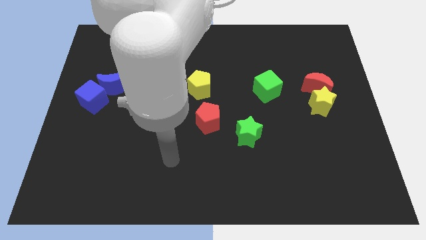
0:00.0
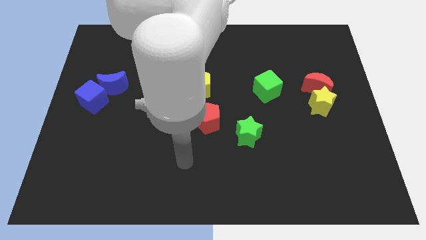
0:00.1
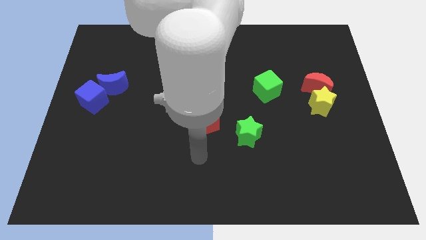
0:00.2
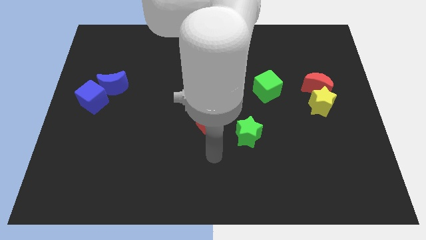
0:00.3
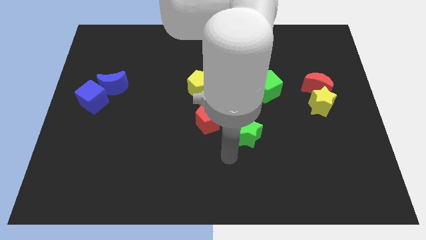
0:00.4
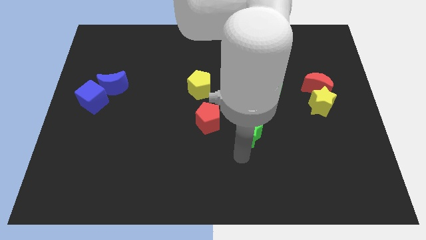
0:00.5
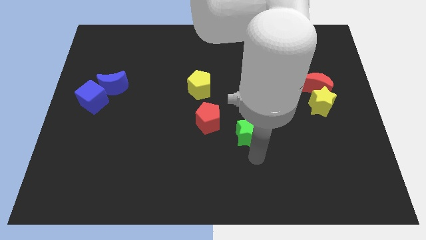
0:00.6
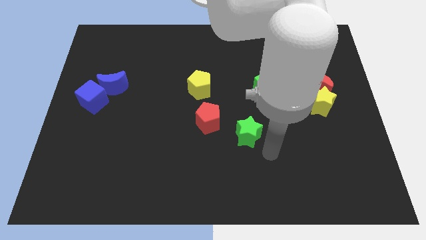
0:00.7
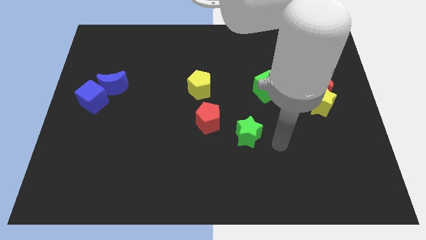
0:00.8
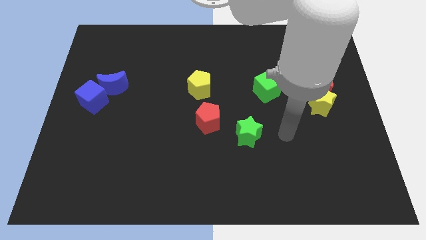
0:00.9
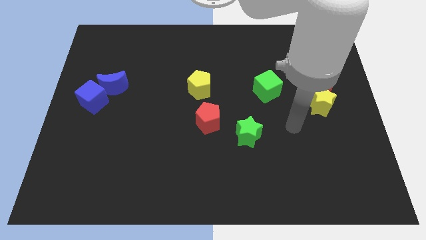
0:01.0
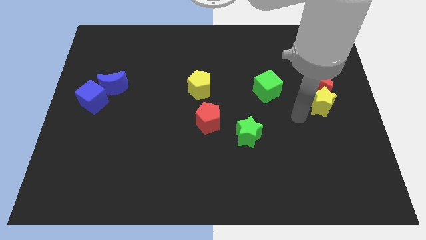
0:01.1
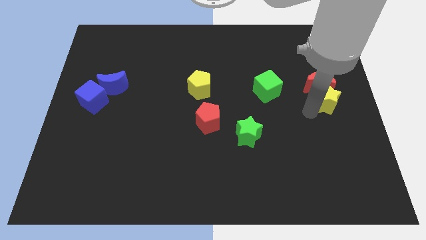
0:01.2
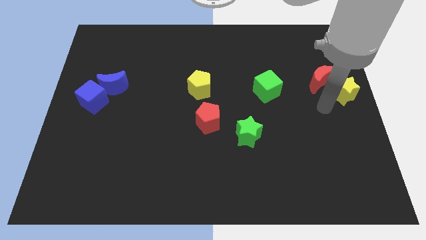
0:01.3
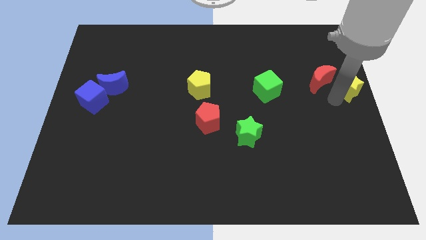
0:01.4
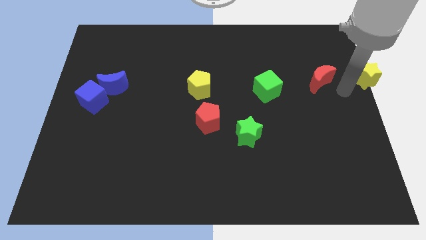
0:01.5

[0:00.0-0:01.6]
separate the red moon from the yellow star

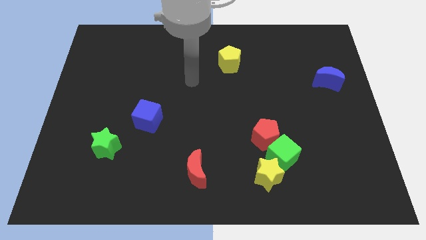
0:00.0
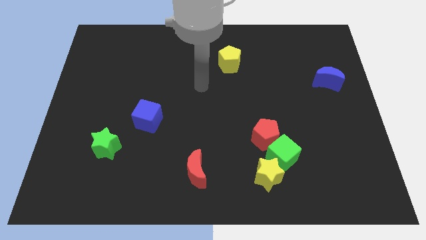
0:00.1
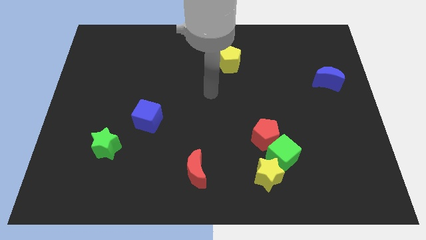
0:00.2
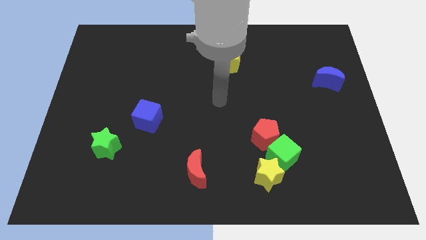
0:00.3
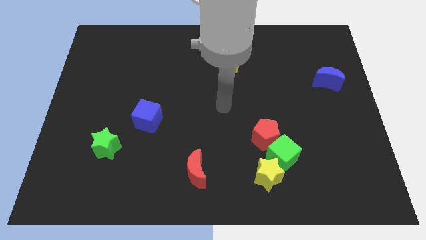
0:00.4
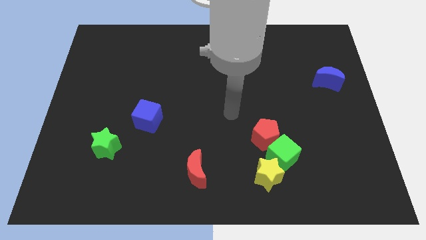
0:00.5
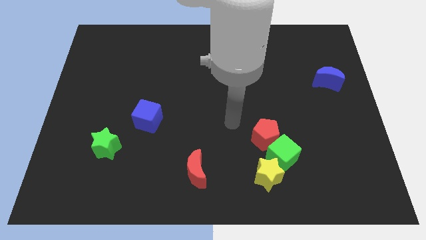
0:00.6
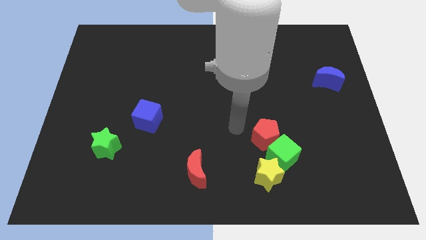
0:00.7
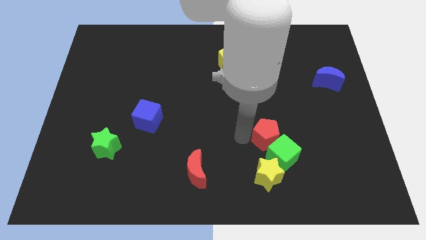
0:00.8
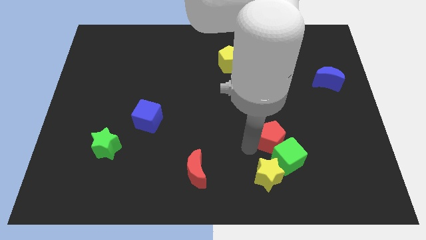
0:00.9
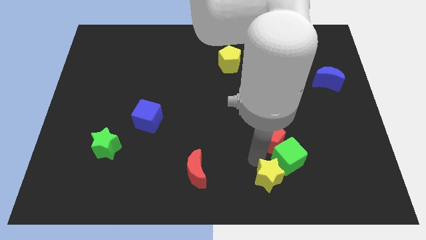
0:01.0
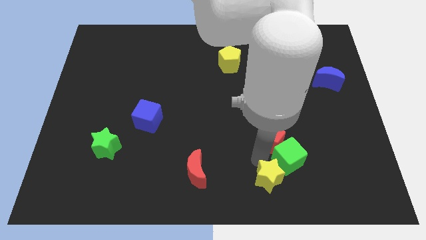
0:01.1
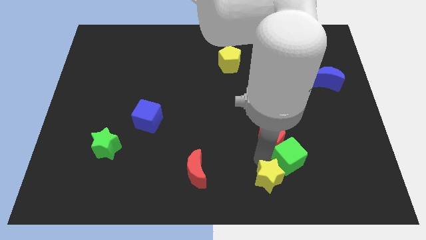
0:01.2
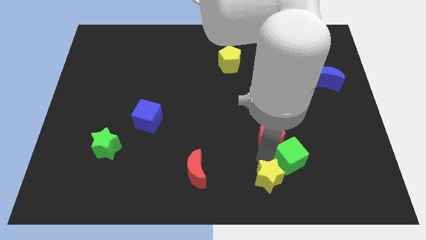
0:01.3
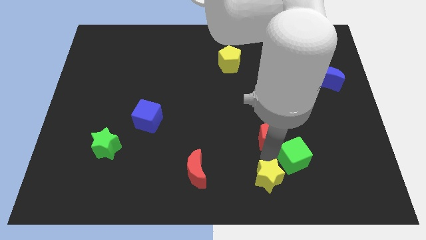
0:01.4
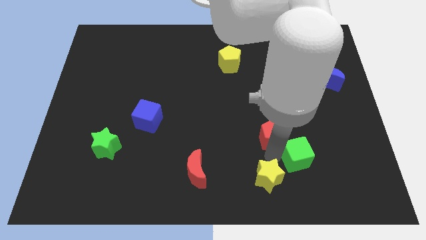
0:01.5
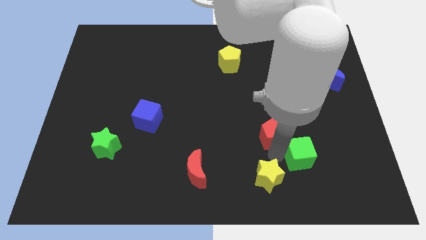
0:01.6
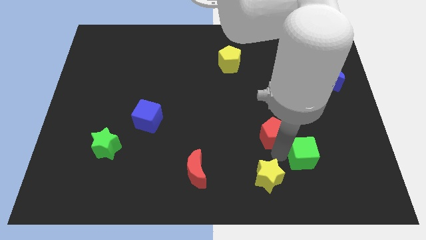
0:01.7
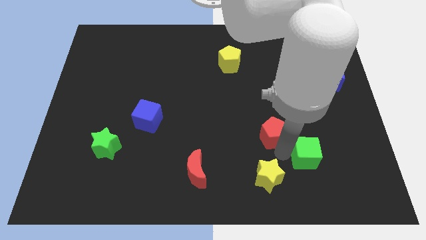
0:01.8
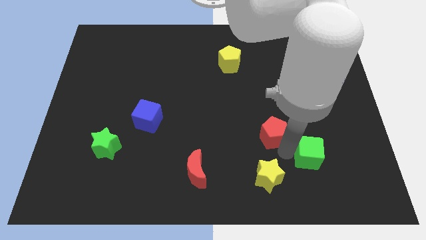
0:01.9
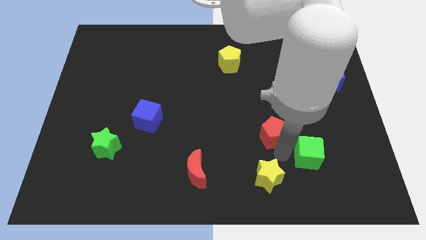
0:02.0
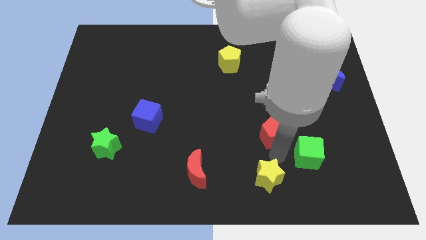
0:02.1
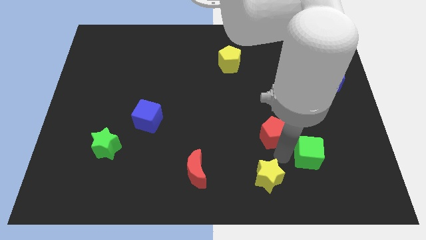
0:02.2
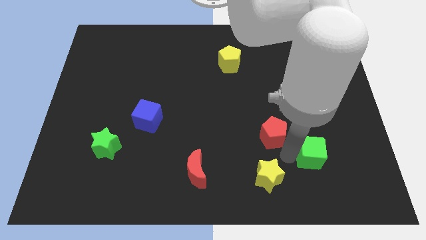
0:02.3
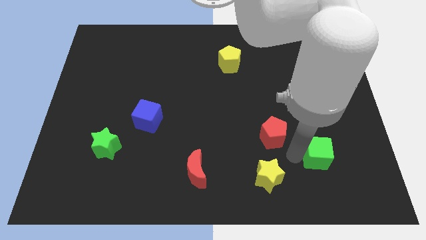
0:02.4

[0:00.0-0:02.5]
pull the green cube apart from the red pentagon and yellow star

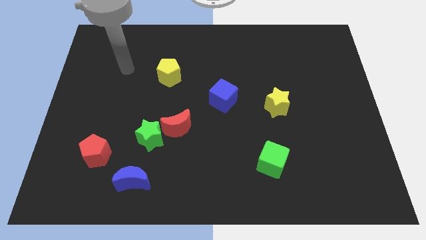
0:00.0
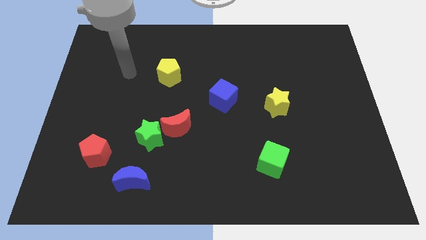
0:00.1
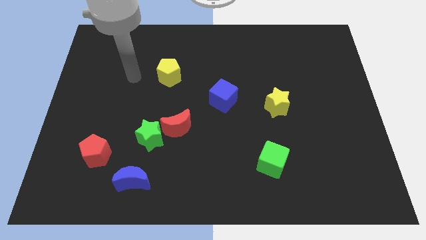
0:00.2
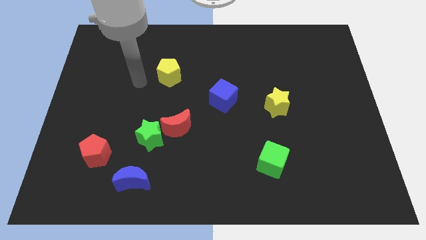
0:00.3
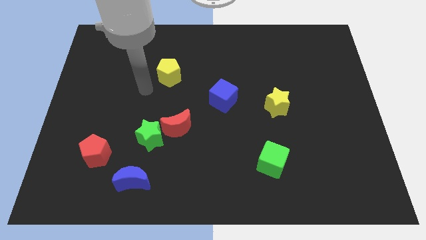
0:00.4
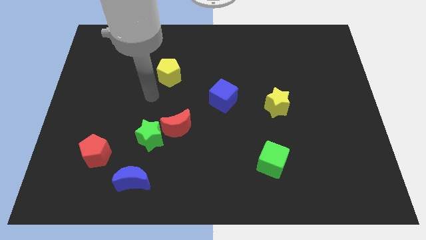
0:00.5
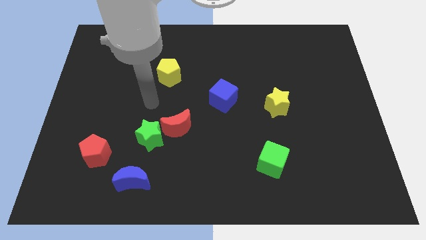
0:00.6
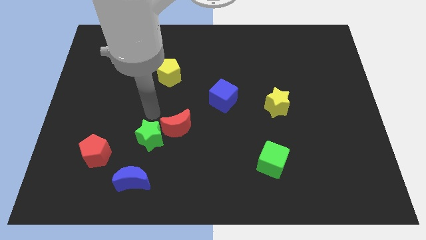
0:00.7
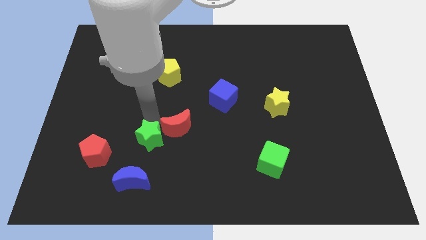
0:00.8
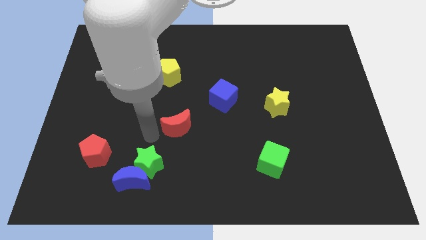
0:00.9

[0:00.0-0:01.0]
move the red moon away from the green star

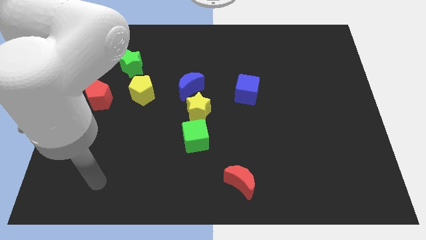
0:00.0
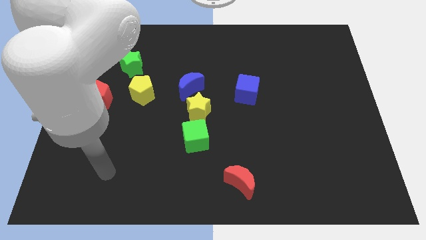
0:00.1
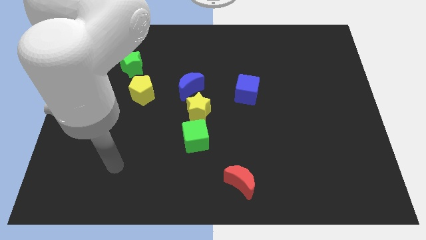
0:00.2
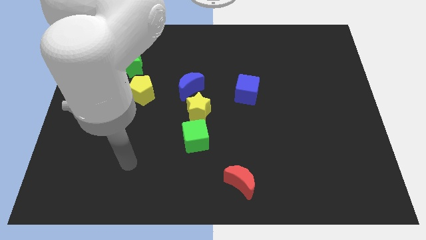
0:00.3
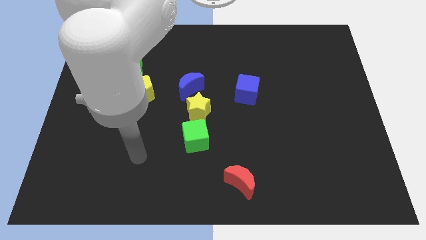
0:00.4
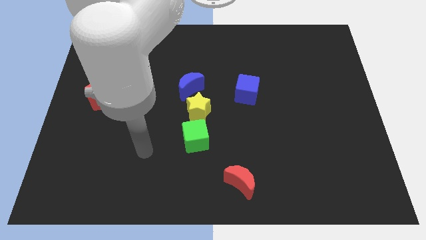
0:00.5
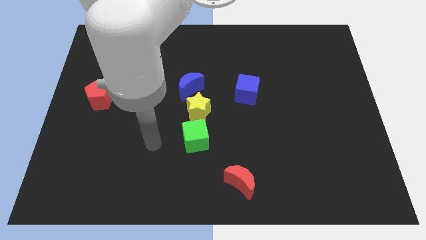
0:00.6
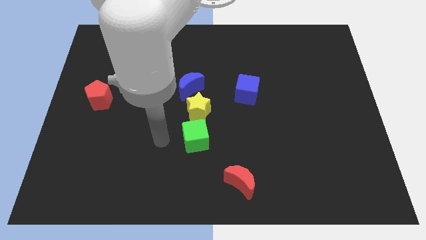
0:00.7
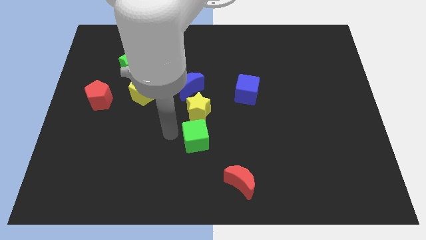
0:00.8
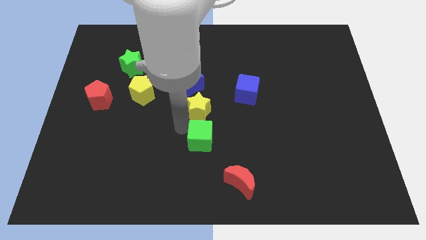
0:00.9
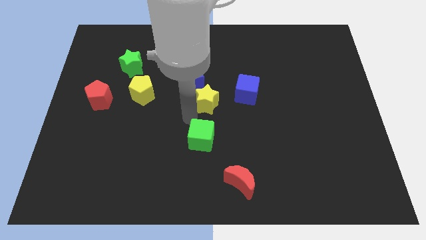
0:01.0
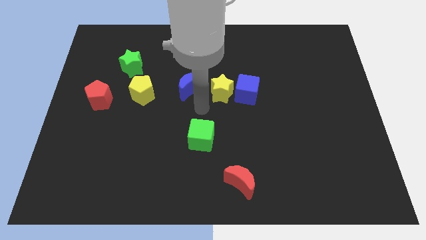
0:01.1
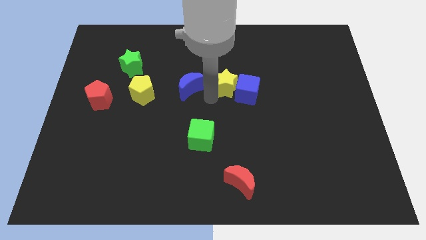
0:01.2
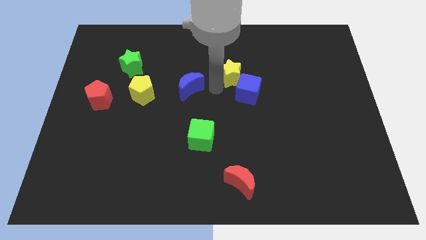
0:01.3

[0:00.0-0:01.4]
separate the blue moon from the yellow star

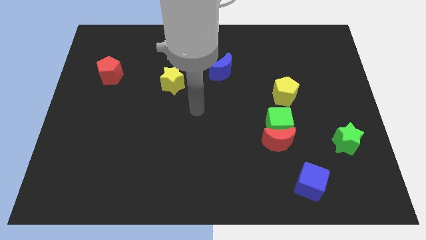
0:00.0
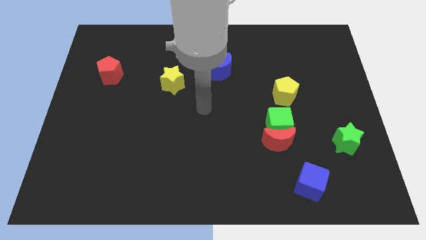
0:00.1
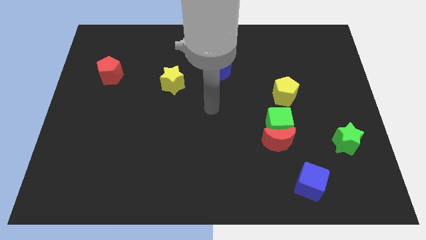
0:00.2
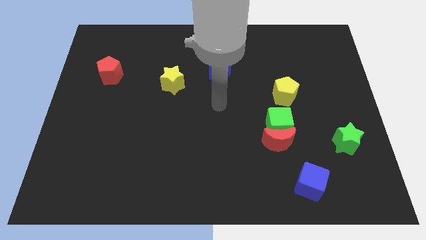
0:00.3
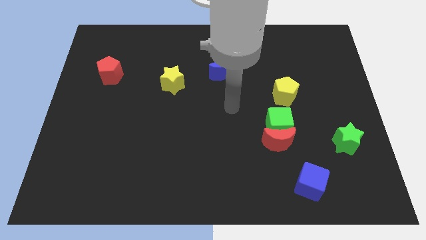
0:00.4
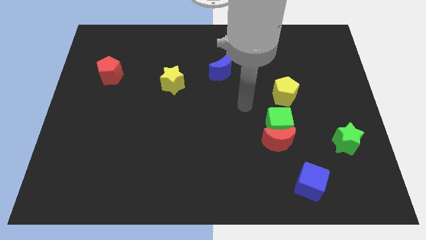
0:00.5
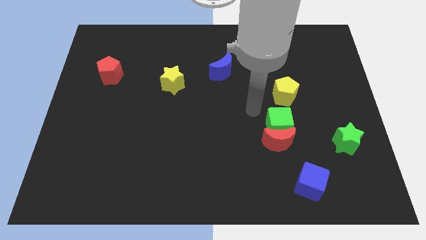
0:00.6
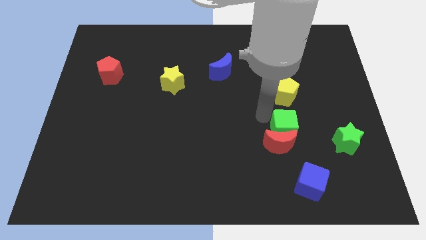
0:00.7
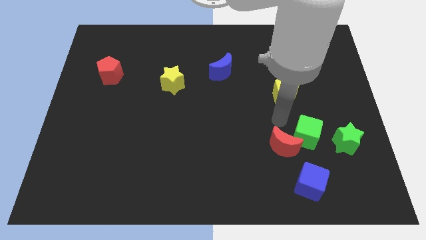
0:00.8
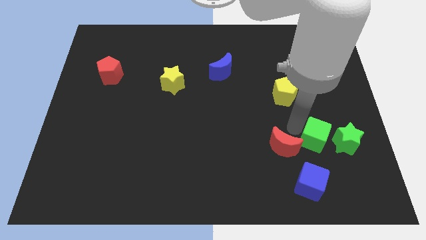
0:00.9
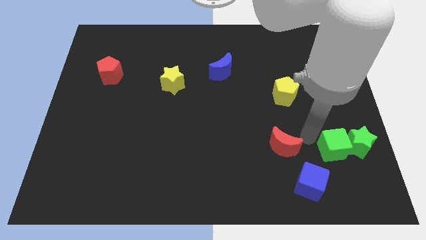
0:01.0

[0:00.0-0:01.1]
move the red moon away from the green cube

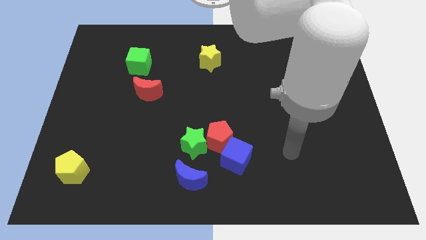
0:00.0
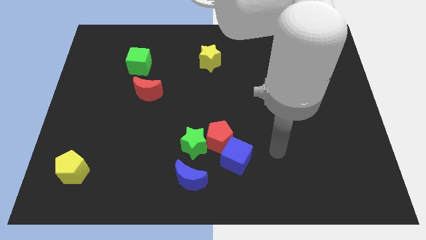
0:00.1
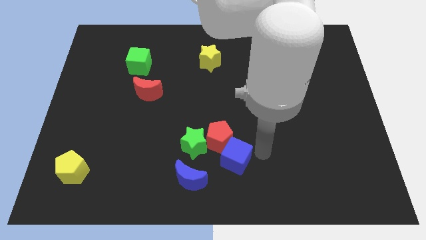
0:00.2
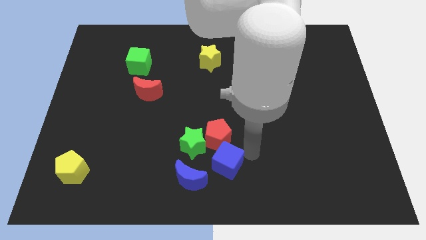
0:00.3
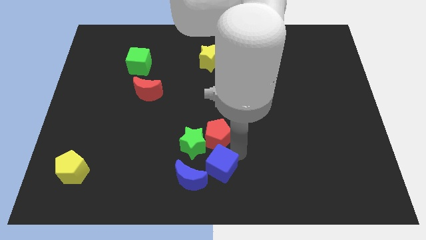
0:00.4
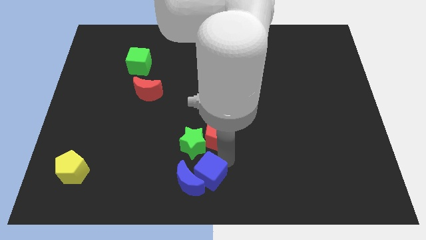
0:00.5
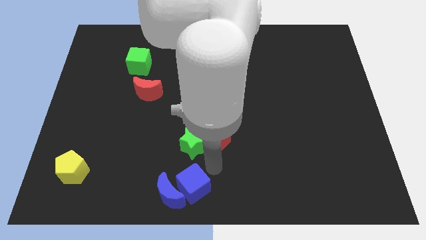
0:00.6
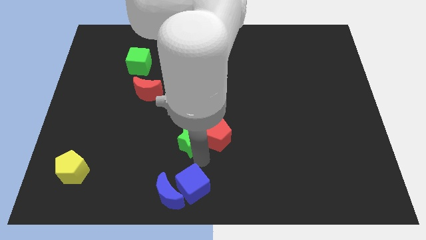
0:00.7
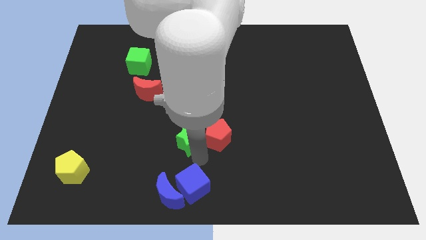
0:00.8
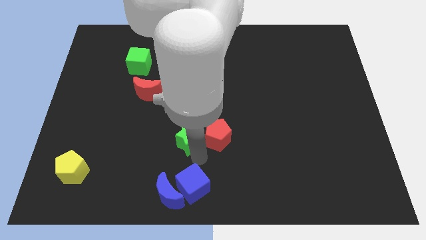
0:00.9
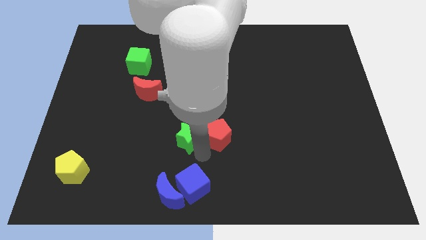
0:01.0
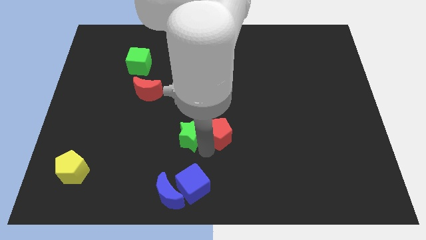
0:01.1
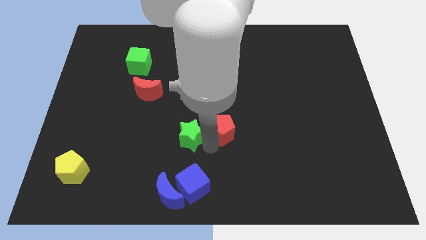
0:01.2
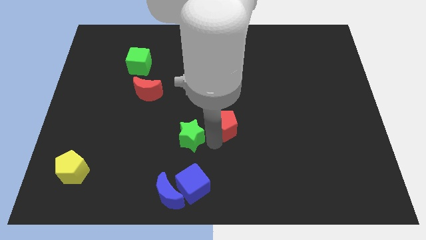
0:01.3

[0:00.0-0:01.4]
separate the red pentagon from the blue cube and green star

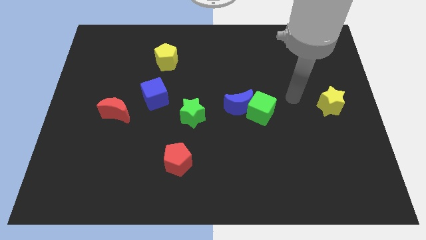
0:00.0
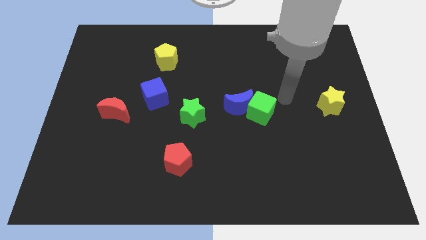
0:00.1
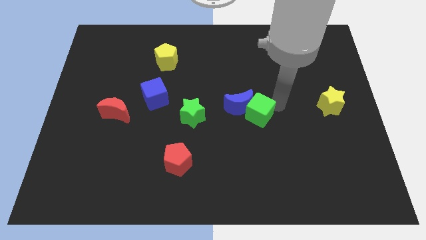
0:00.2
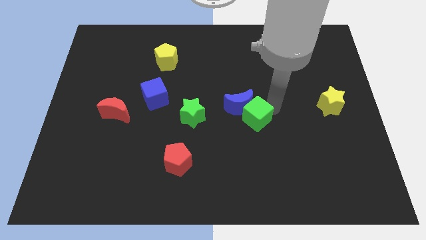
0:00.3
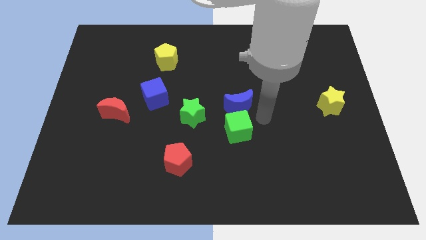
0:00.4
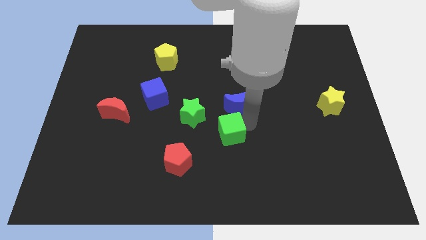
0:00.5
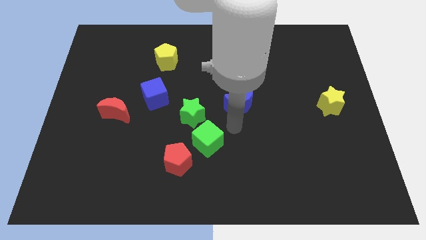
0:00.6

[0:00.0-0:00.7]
move the blue moon away from the green cube
